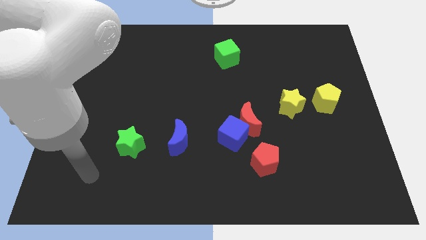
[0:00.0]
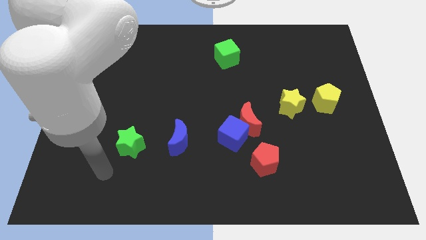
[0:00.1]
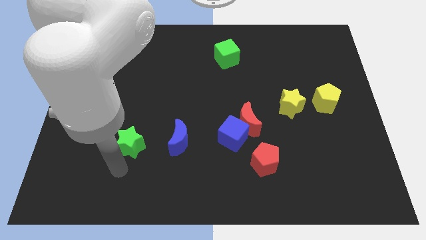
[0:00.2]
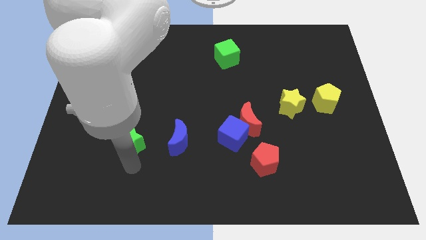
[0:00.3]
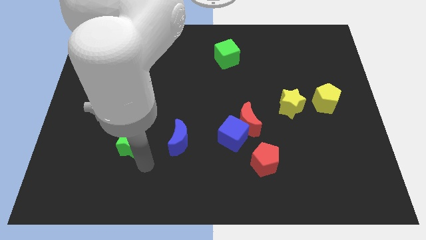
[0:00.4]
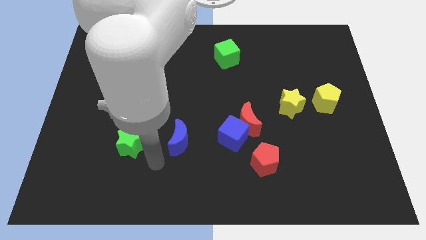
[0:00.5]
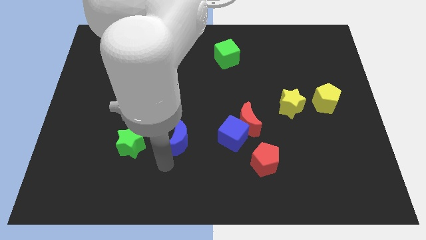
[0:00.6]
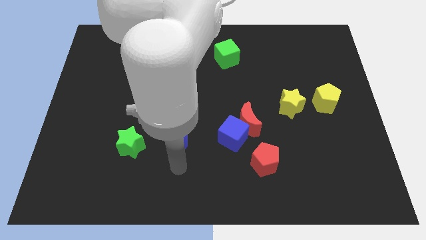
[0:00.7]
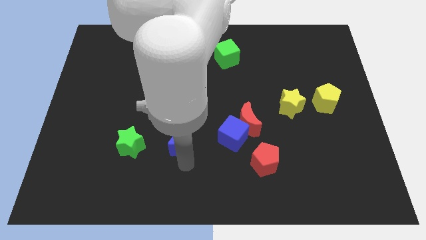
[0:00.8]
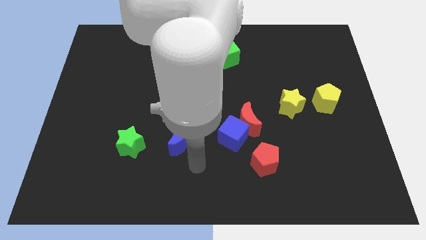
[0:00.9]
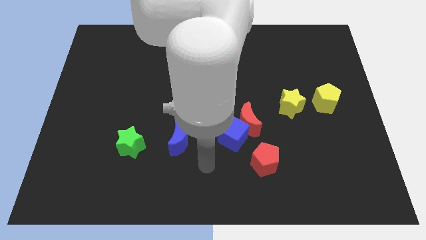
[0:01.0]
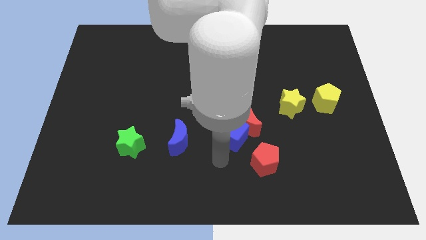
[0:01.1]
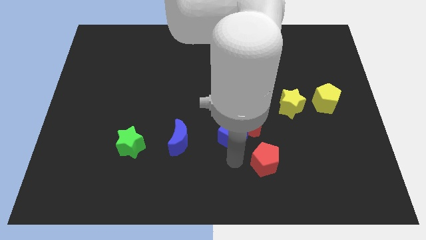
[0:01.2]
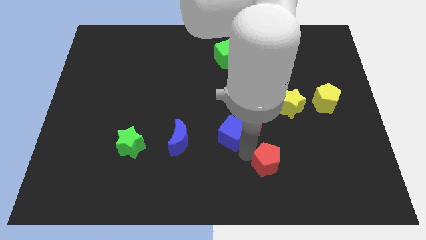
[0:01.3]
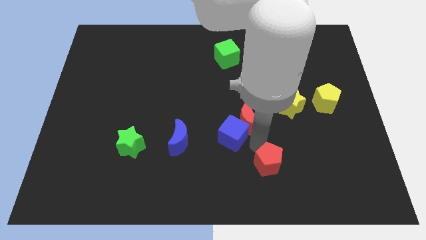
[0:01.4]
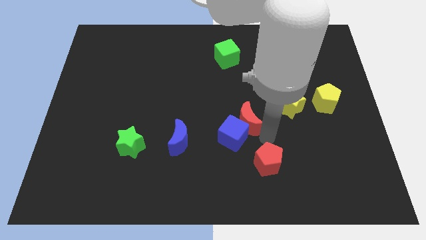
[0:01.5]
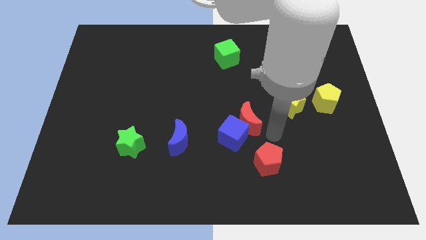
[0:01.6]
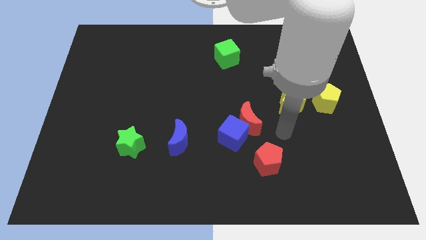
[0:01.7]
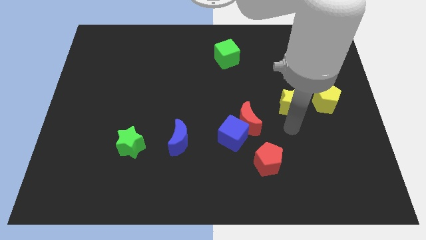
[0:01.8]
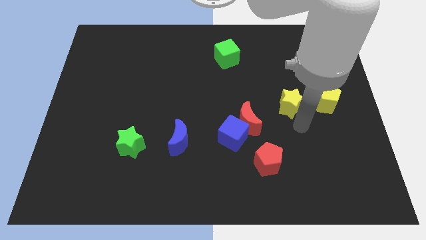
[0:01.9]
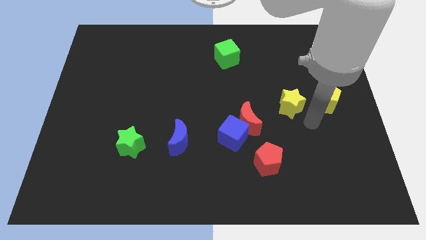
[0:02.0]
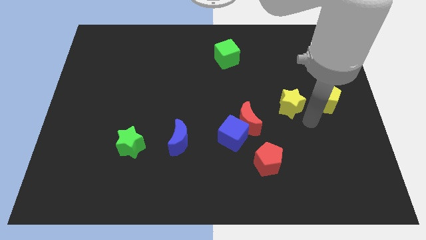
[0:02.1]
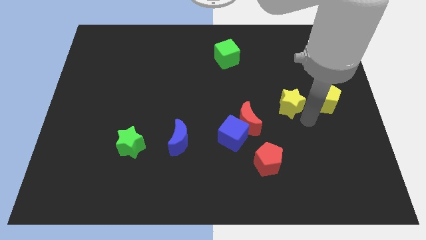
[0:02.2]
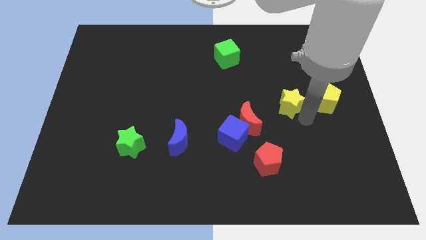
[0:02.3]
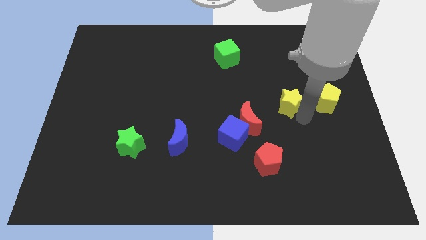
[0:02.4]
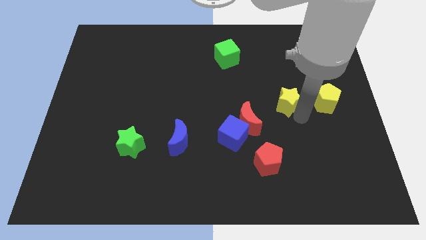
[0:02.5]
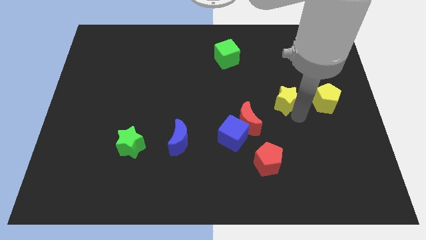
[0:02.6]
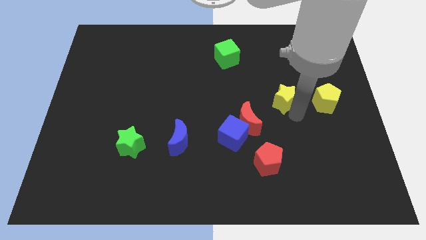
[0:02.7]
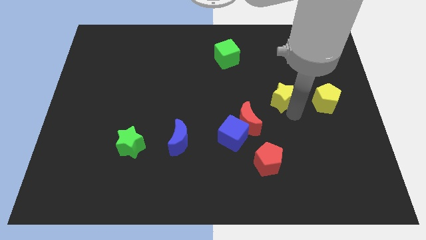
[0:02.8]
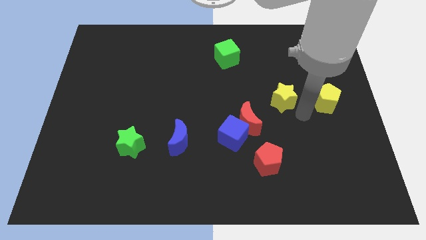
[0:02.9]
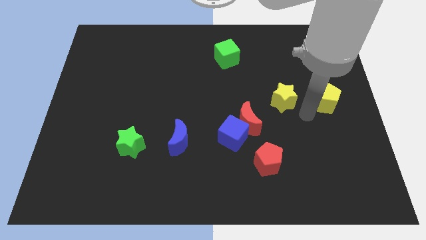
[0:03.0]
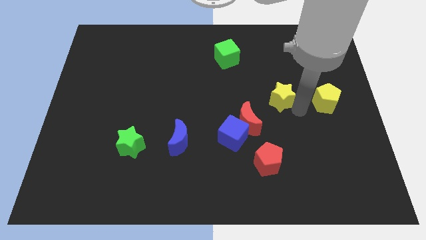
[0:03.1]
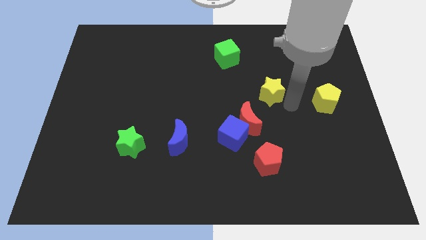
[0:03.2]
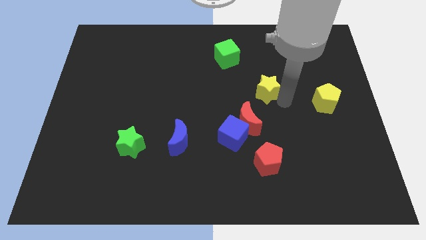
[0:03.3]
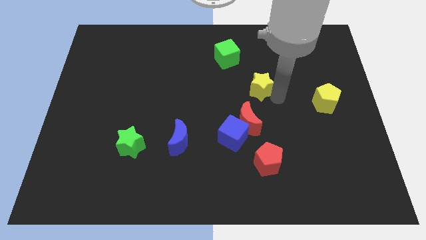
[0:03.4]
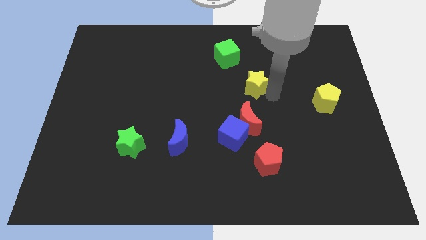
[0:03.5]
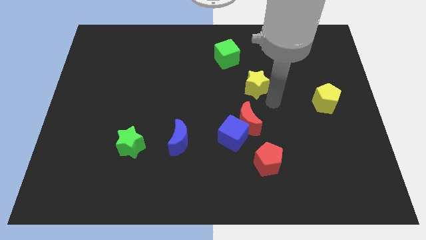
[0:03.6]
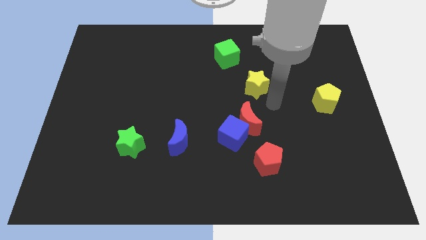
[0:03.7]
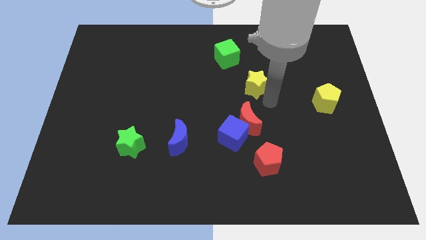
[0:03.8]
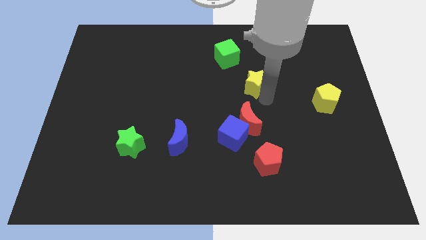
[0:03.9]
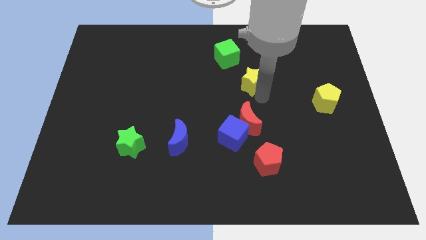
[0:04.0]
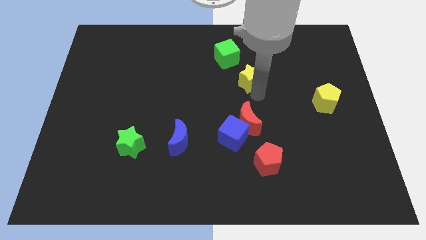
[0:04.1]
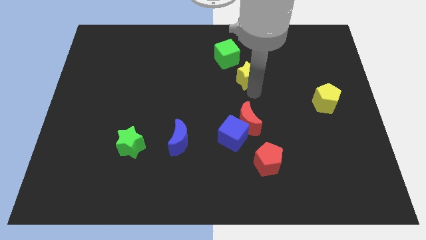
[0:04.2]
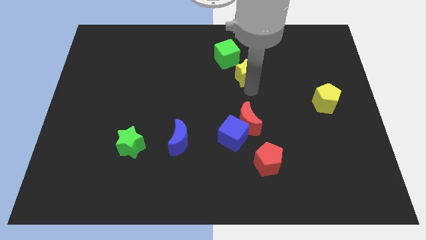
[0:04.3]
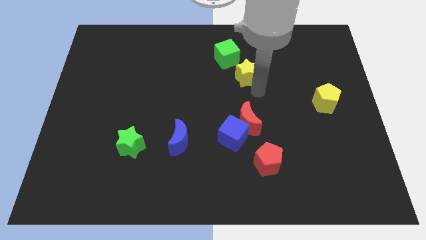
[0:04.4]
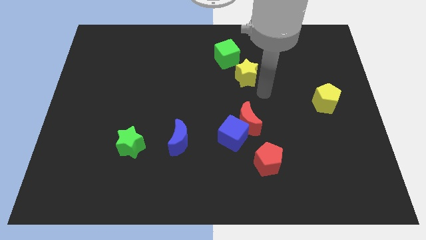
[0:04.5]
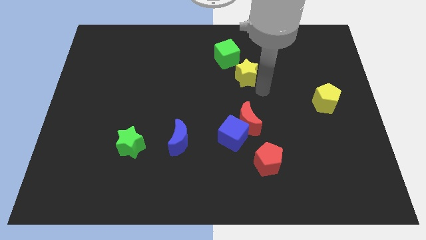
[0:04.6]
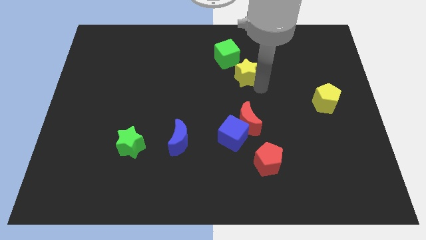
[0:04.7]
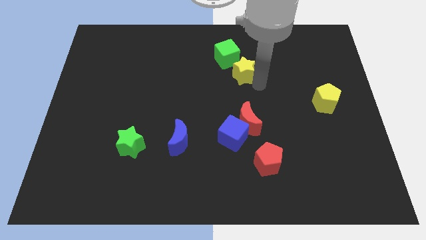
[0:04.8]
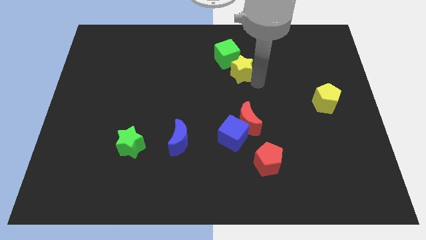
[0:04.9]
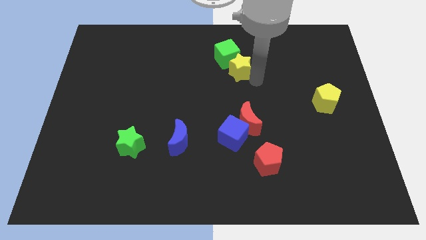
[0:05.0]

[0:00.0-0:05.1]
push the yellow star next to the green cube

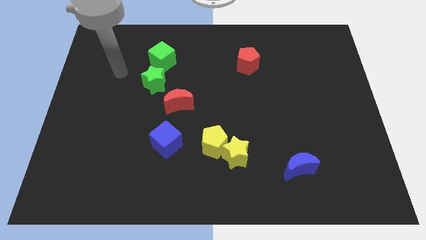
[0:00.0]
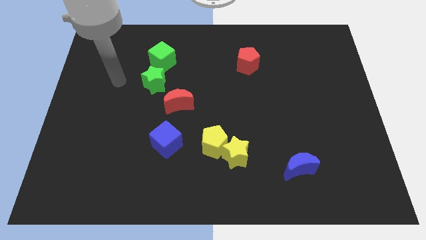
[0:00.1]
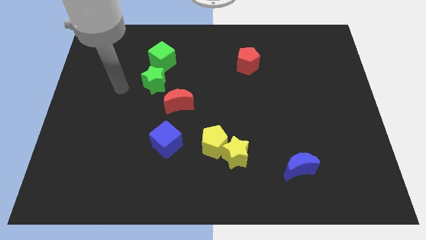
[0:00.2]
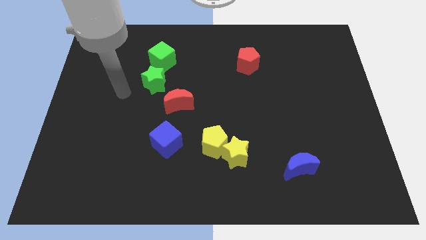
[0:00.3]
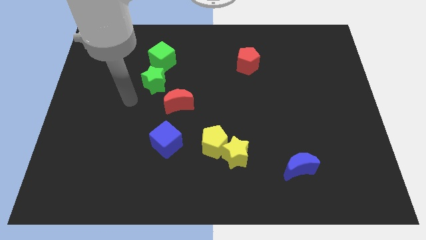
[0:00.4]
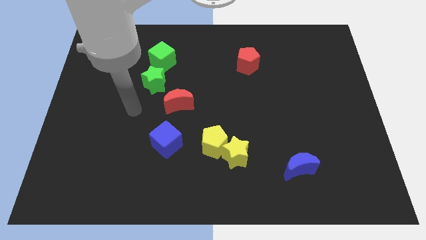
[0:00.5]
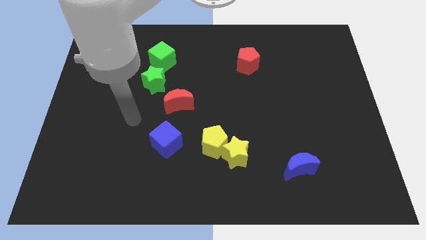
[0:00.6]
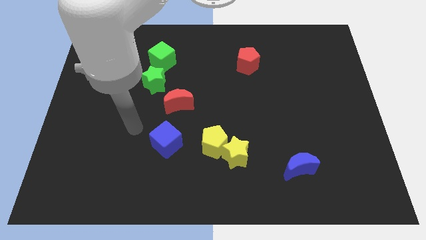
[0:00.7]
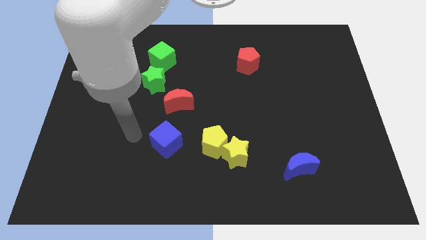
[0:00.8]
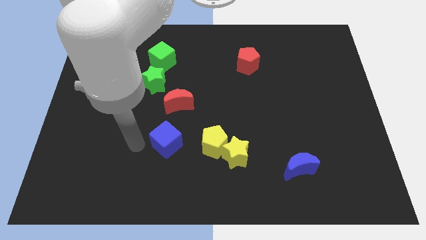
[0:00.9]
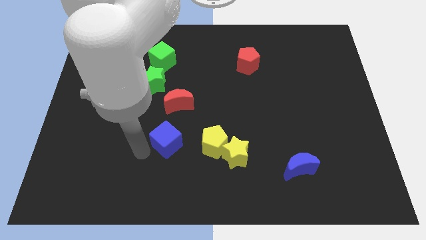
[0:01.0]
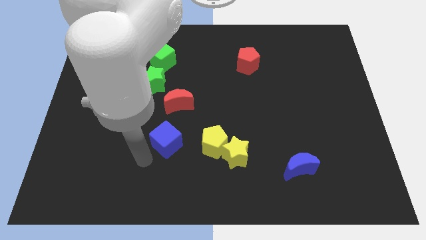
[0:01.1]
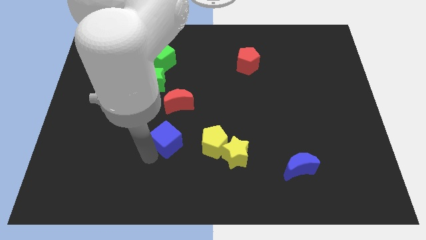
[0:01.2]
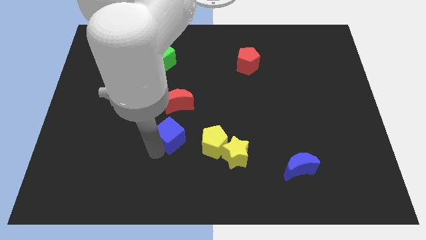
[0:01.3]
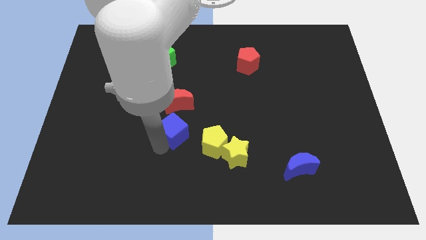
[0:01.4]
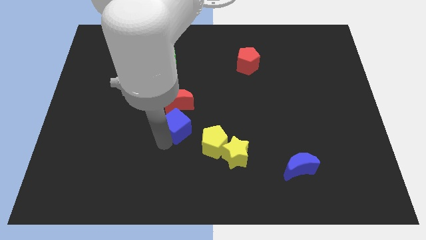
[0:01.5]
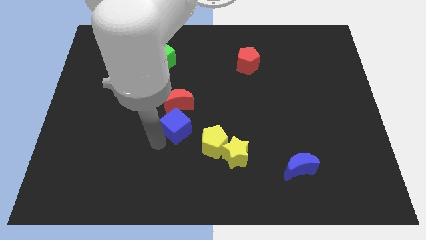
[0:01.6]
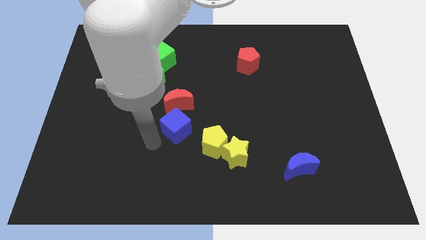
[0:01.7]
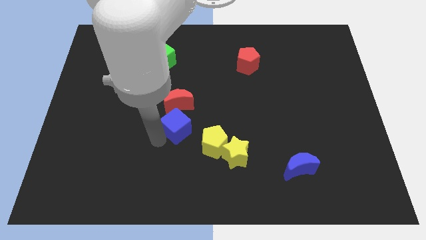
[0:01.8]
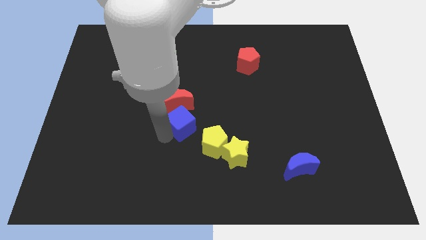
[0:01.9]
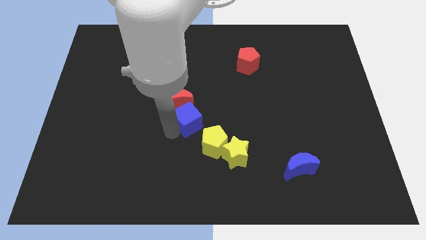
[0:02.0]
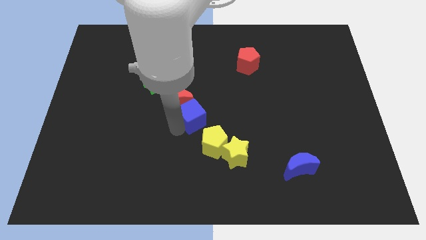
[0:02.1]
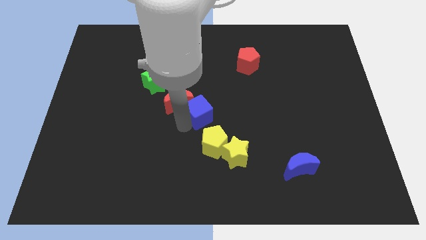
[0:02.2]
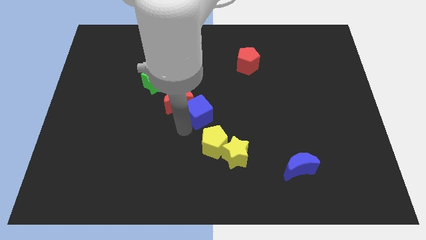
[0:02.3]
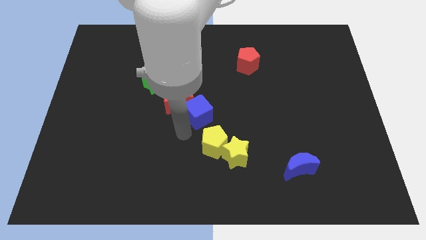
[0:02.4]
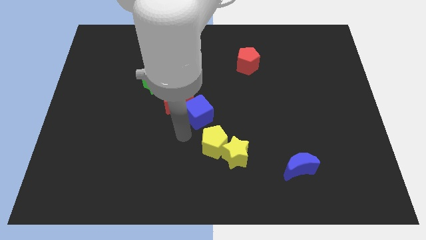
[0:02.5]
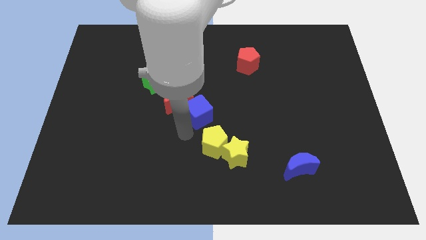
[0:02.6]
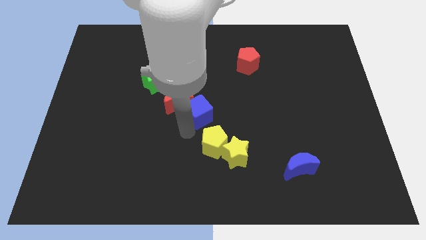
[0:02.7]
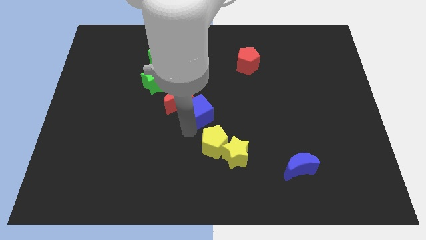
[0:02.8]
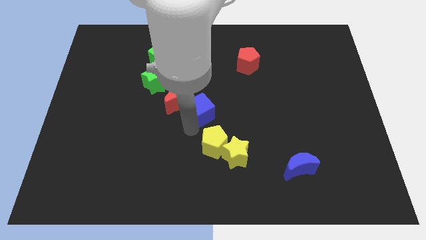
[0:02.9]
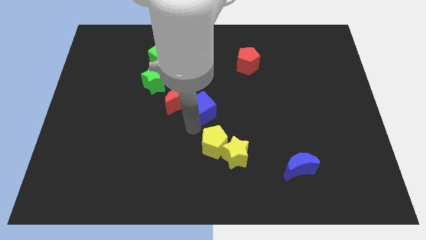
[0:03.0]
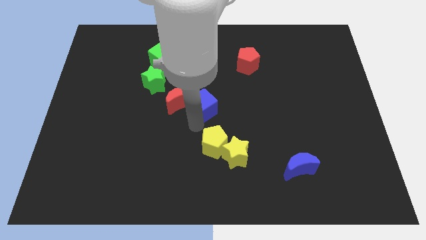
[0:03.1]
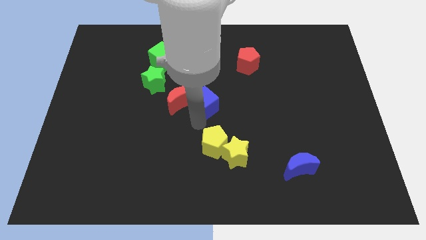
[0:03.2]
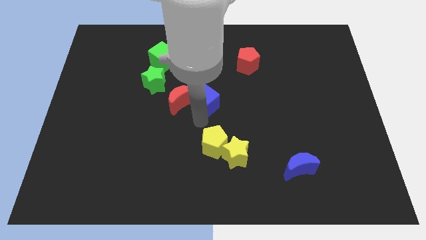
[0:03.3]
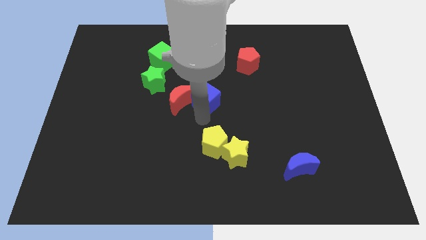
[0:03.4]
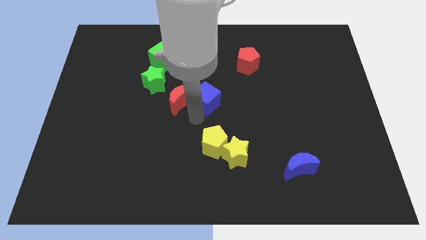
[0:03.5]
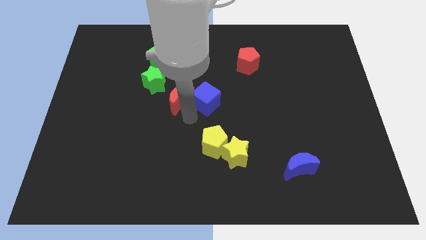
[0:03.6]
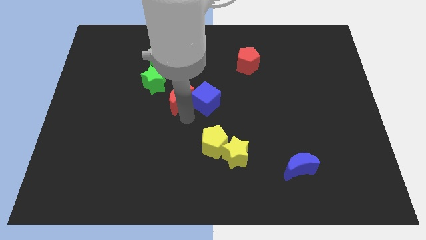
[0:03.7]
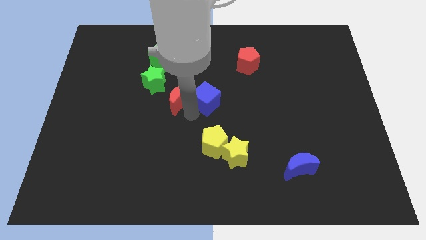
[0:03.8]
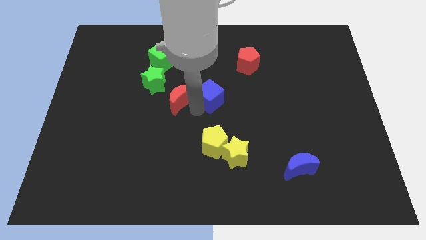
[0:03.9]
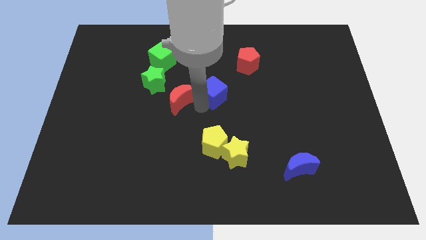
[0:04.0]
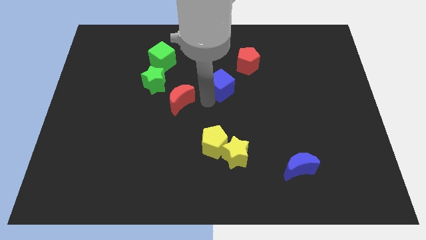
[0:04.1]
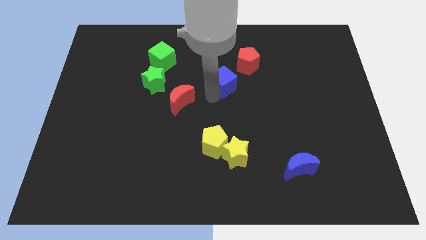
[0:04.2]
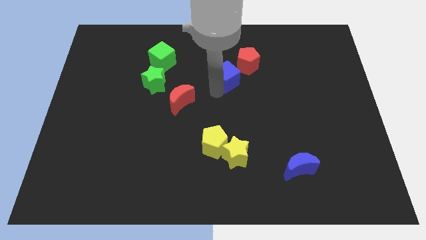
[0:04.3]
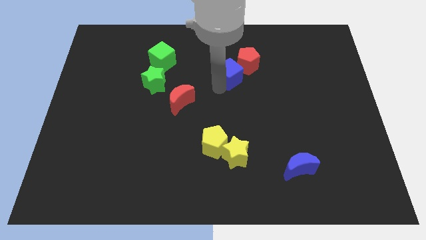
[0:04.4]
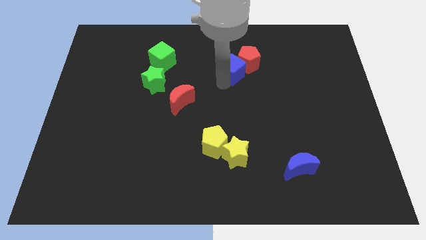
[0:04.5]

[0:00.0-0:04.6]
put the blue cube towards the red pentagon
